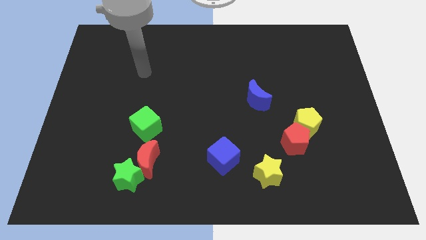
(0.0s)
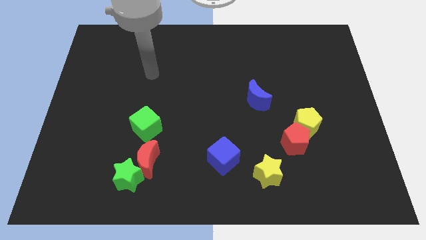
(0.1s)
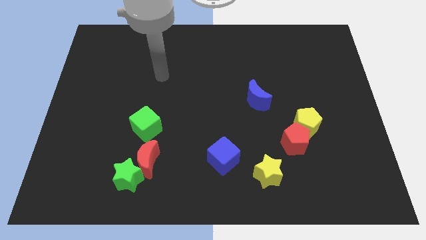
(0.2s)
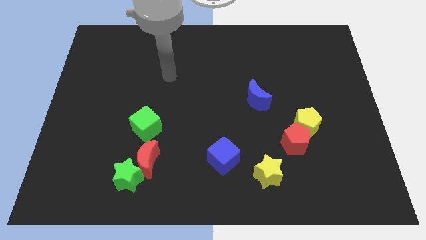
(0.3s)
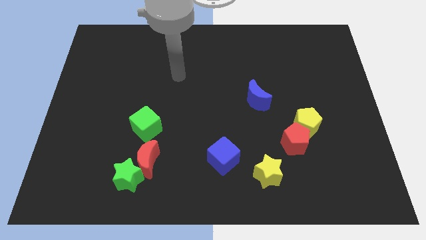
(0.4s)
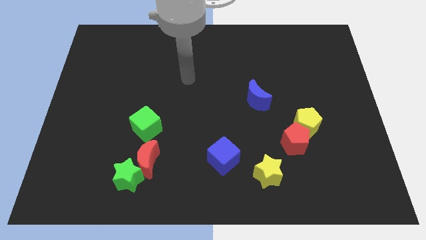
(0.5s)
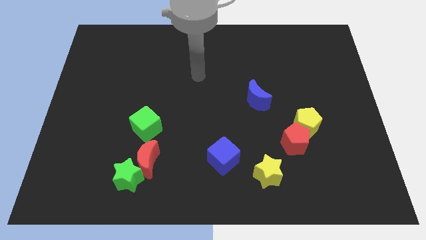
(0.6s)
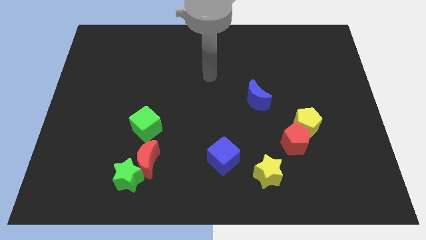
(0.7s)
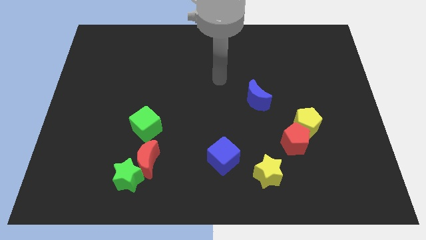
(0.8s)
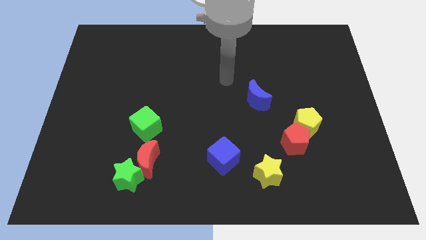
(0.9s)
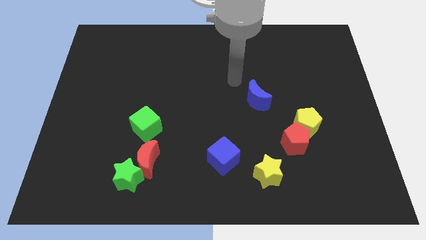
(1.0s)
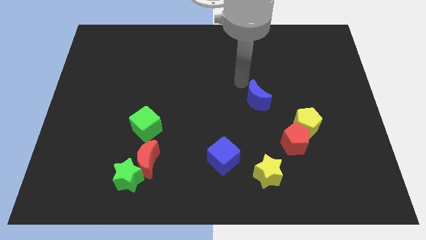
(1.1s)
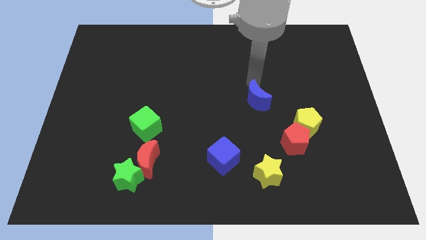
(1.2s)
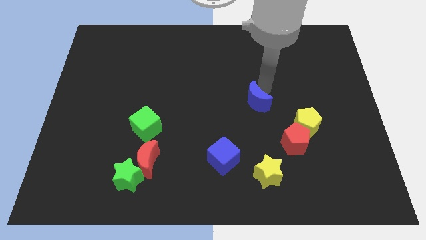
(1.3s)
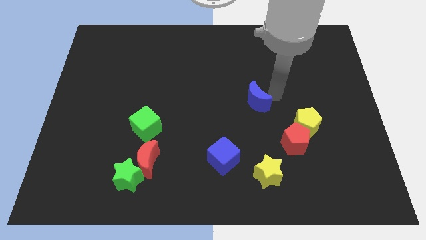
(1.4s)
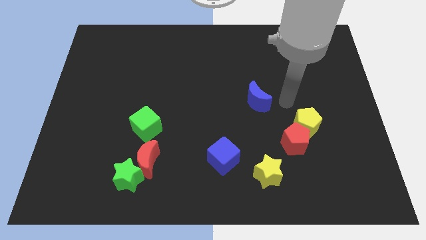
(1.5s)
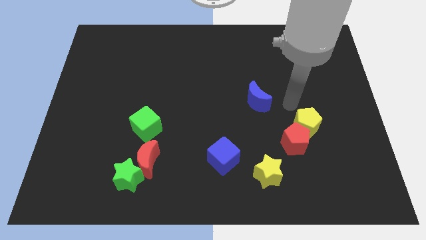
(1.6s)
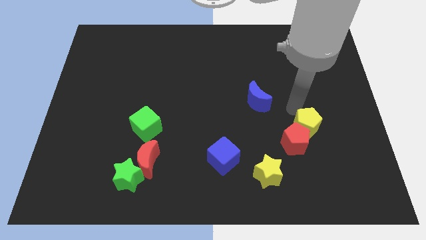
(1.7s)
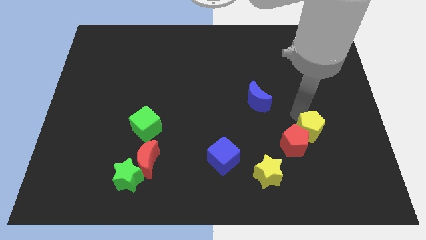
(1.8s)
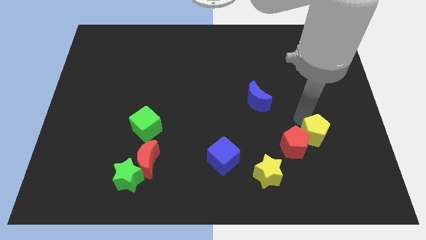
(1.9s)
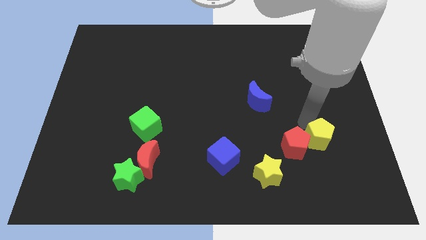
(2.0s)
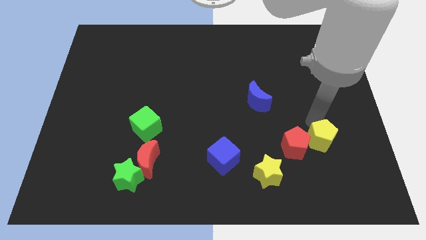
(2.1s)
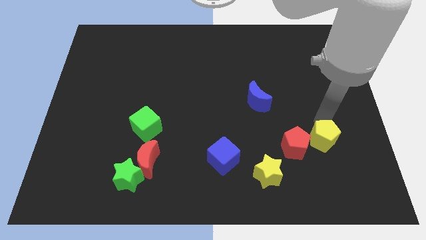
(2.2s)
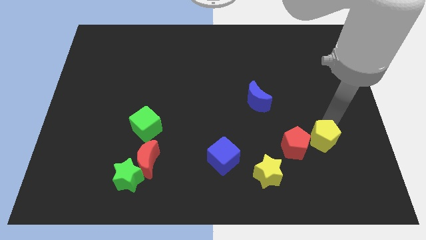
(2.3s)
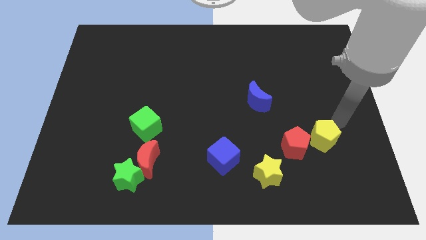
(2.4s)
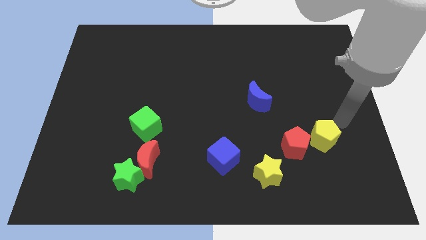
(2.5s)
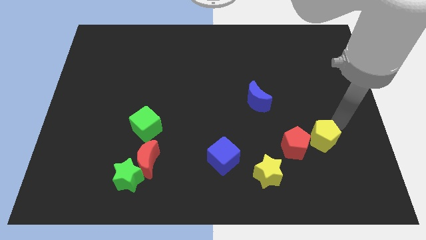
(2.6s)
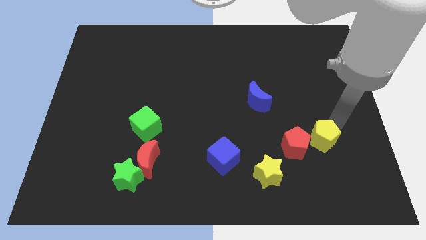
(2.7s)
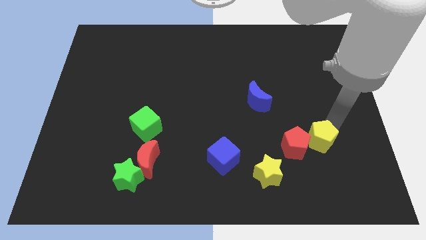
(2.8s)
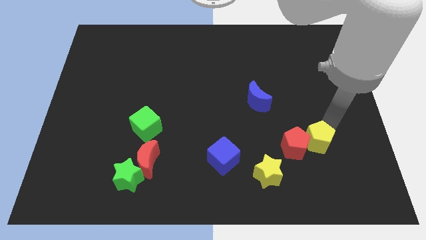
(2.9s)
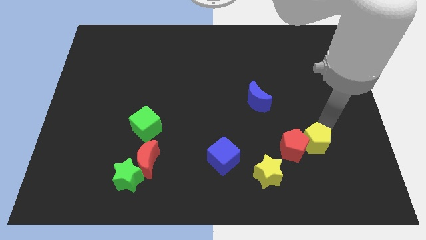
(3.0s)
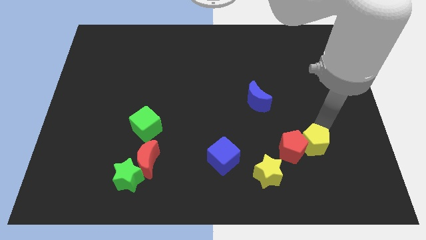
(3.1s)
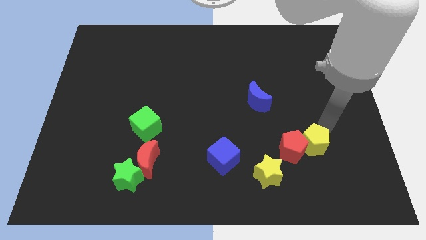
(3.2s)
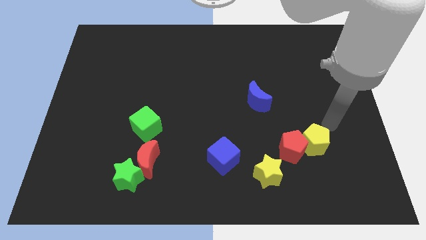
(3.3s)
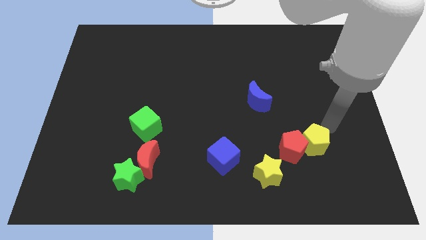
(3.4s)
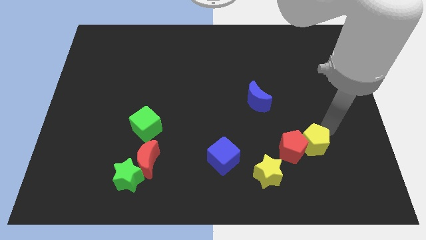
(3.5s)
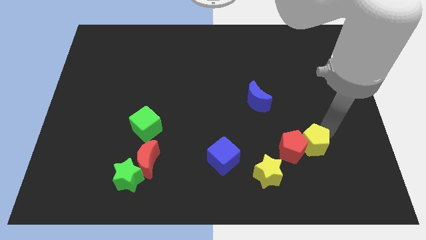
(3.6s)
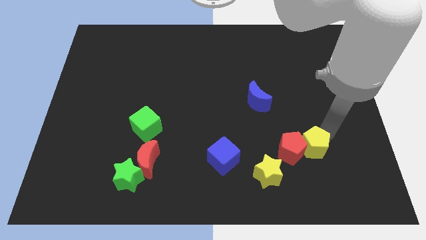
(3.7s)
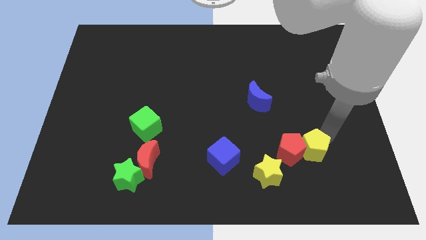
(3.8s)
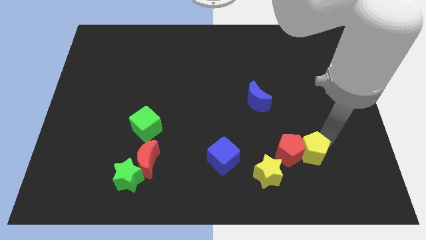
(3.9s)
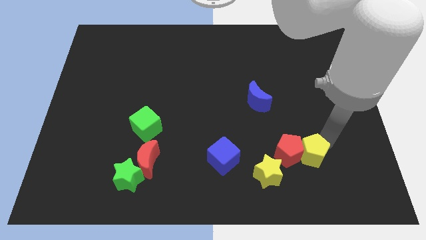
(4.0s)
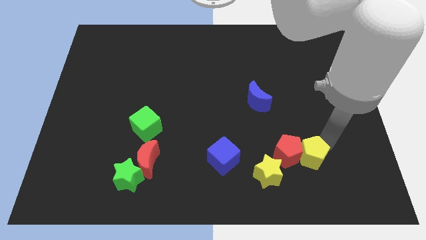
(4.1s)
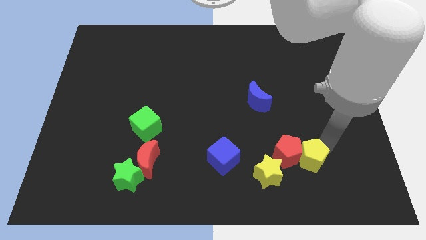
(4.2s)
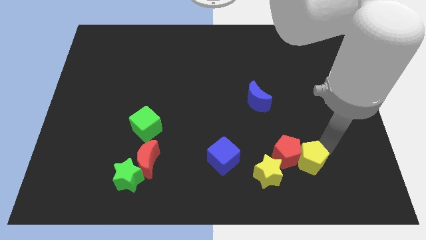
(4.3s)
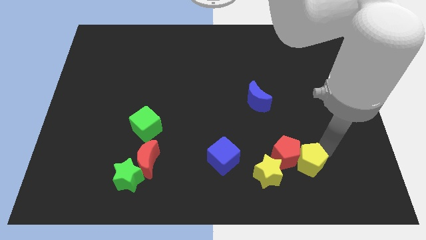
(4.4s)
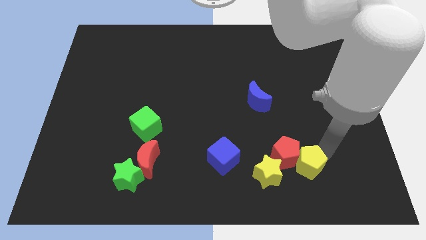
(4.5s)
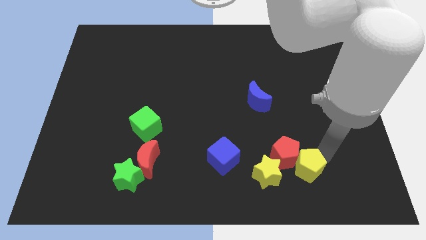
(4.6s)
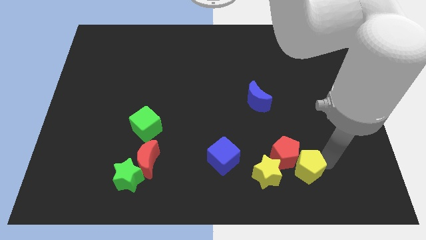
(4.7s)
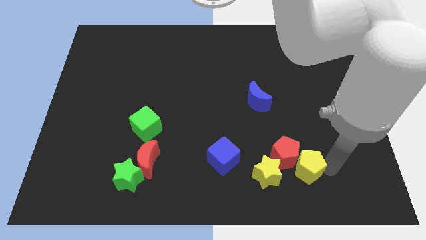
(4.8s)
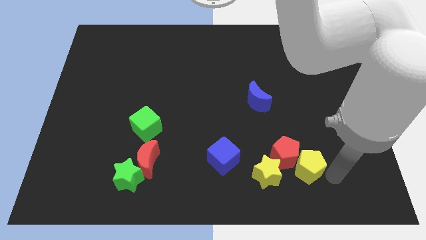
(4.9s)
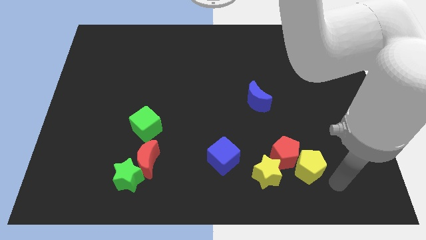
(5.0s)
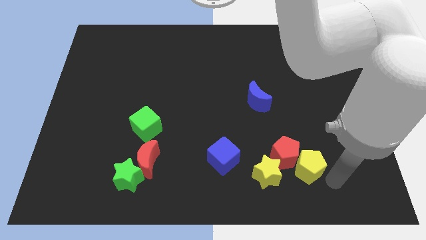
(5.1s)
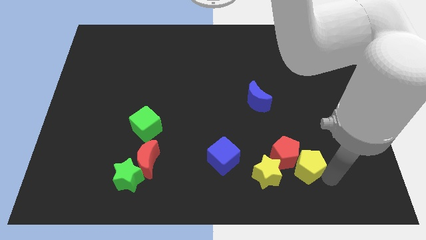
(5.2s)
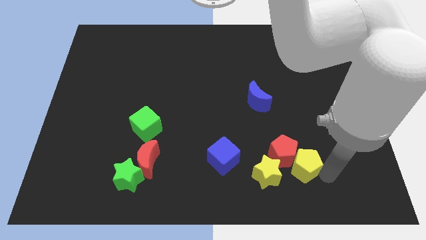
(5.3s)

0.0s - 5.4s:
move the yellow pentagon downwards and then to the left somewhat

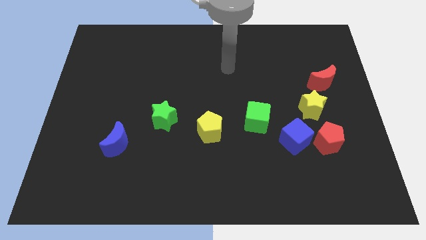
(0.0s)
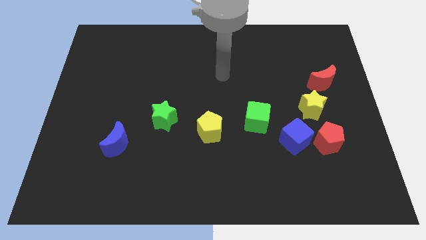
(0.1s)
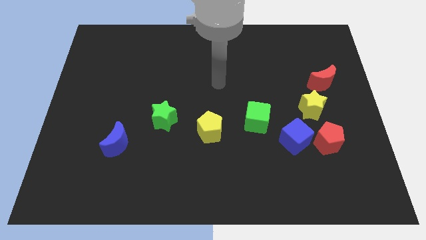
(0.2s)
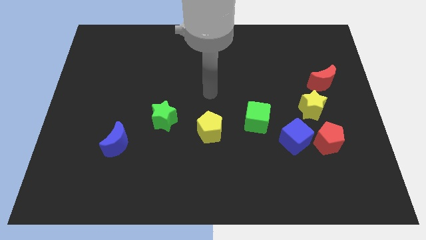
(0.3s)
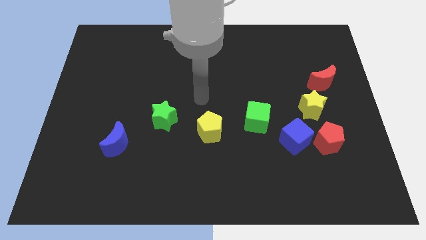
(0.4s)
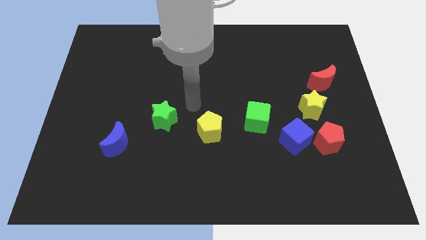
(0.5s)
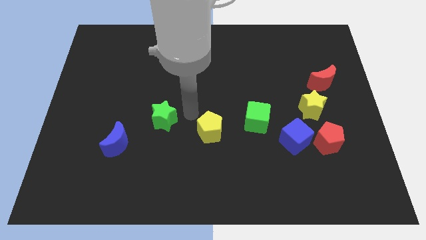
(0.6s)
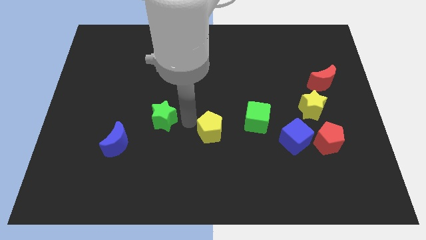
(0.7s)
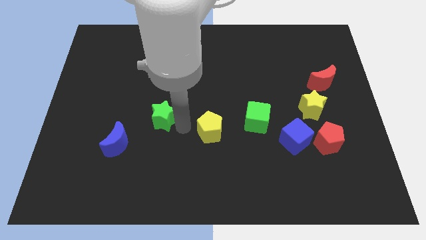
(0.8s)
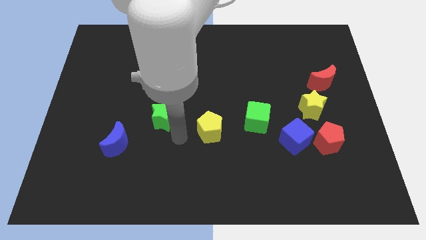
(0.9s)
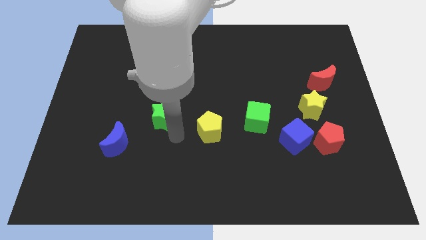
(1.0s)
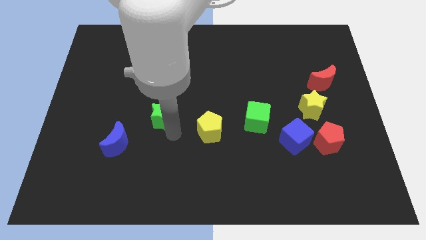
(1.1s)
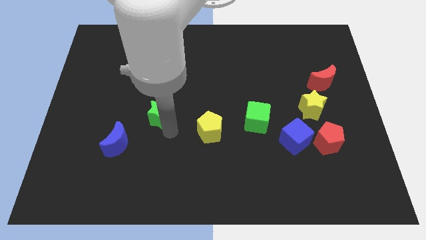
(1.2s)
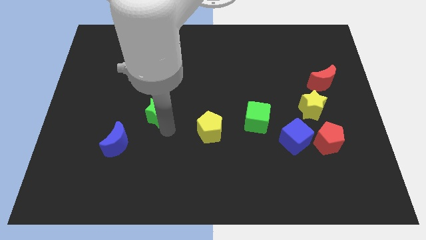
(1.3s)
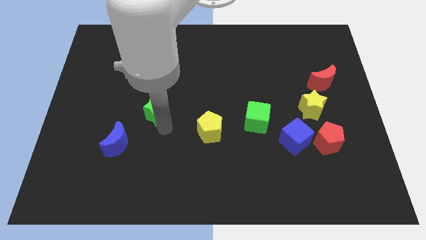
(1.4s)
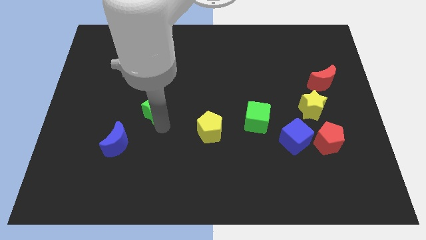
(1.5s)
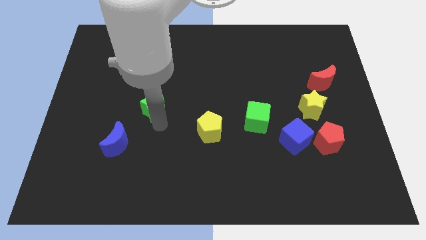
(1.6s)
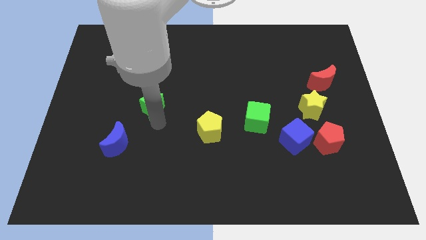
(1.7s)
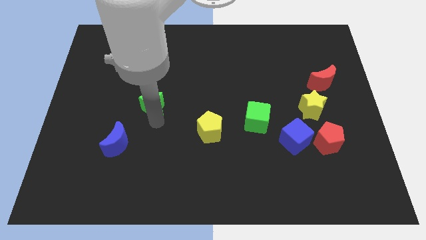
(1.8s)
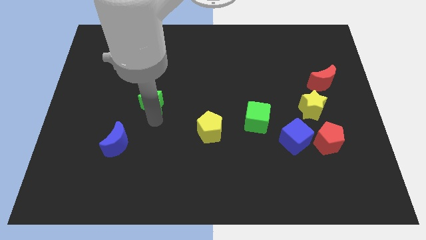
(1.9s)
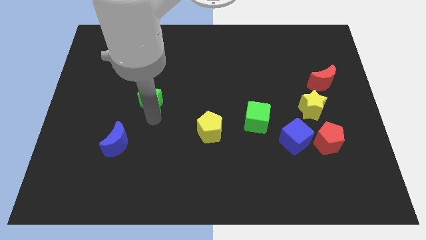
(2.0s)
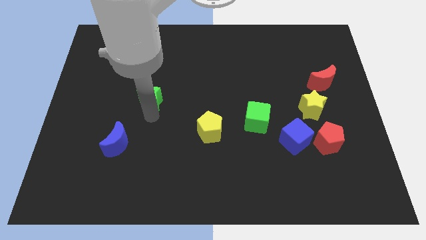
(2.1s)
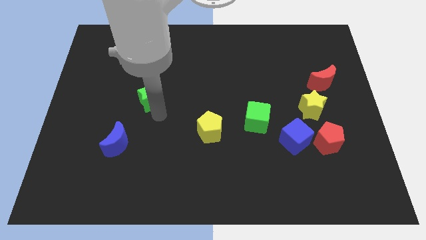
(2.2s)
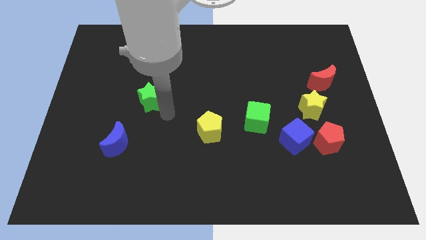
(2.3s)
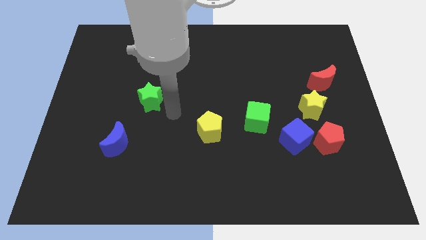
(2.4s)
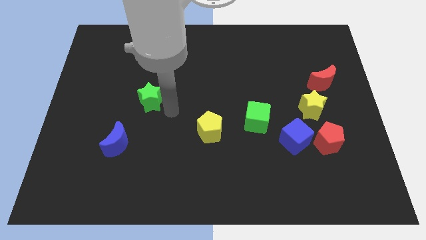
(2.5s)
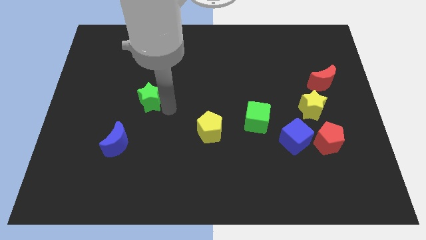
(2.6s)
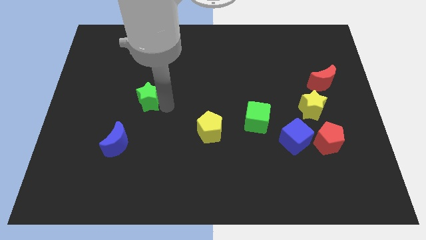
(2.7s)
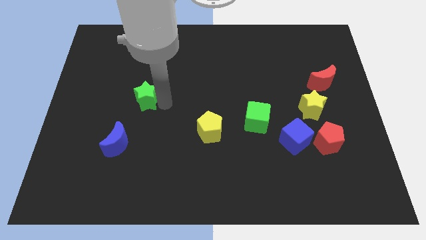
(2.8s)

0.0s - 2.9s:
push the green star slightly upwards and left diagonally
